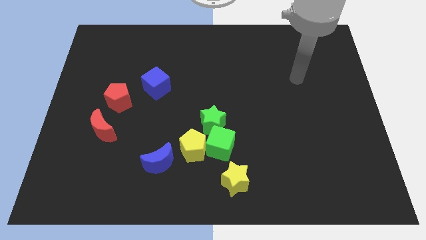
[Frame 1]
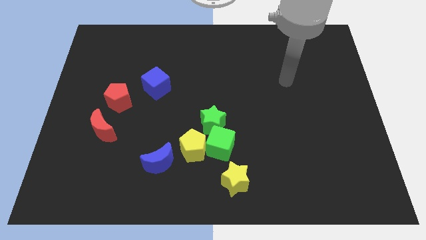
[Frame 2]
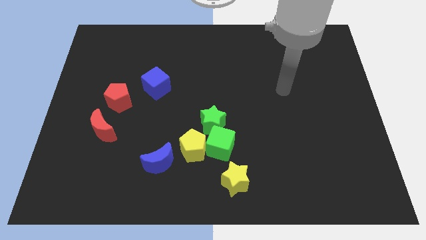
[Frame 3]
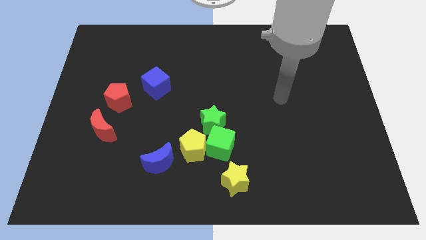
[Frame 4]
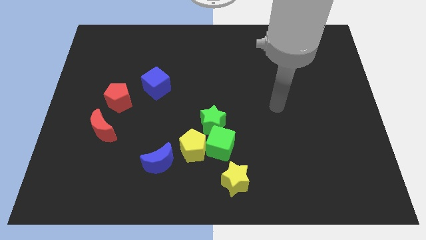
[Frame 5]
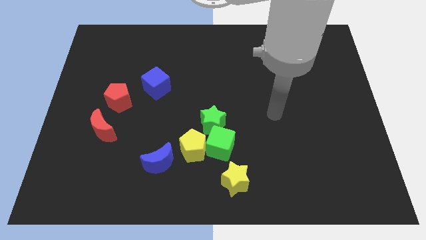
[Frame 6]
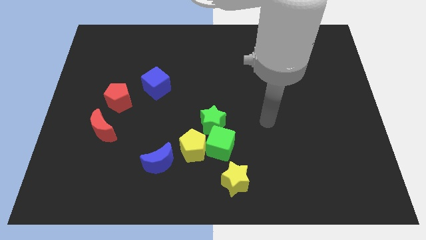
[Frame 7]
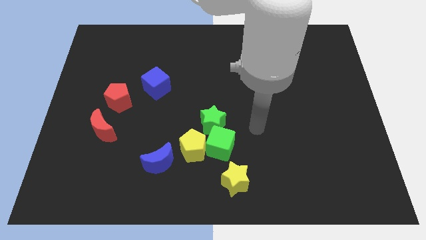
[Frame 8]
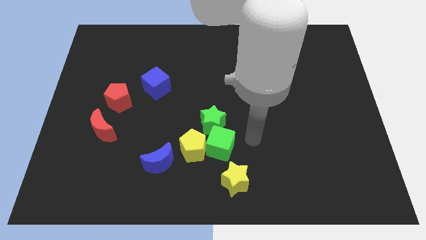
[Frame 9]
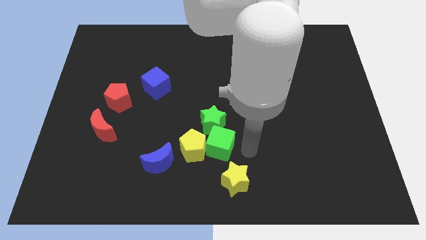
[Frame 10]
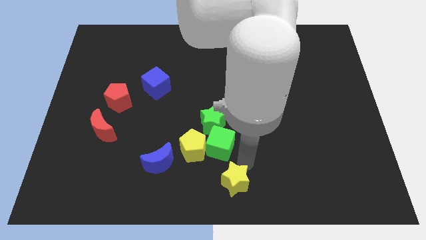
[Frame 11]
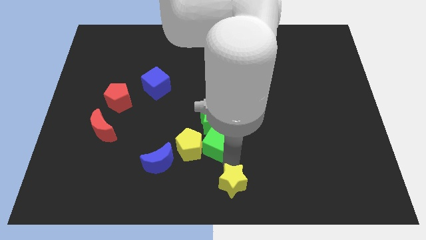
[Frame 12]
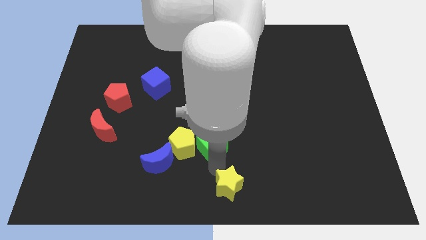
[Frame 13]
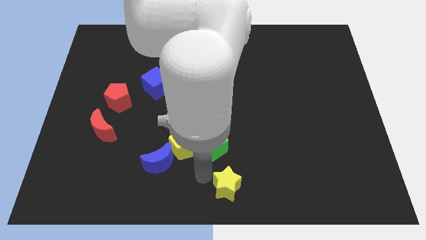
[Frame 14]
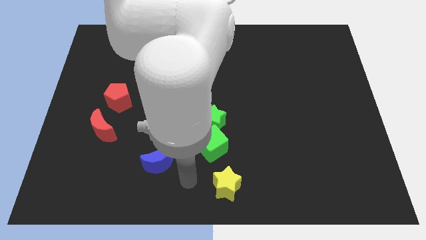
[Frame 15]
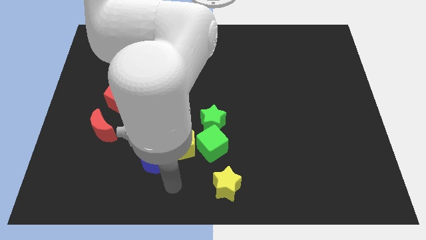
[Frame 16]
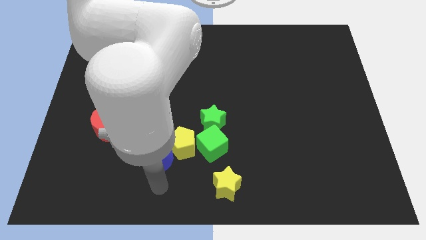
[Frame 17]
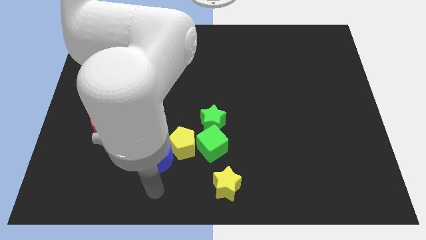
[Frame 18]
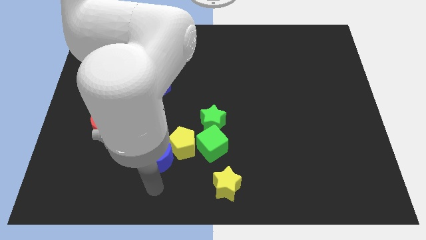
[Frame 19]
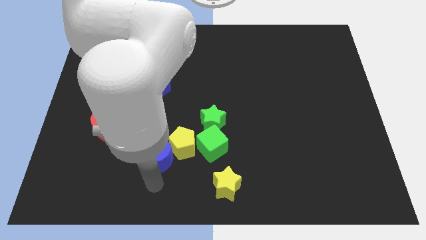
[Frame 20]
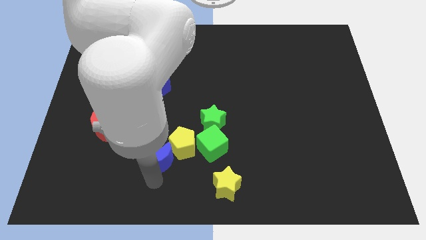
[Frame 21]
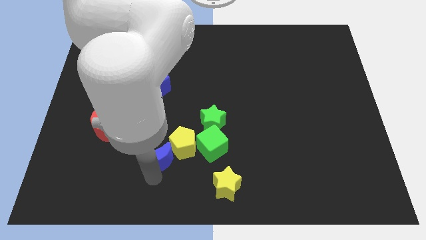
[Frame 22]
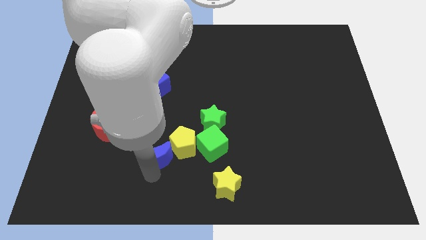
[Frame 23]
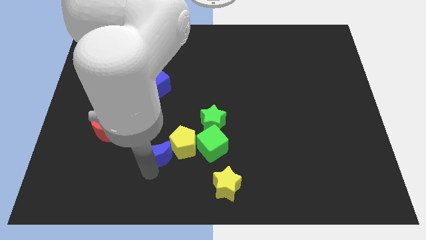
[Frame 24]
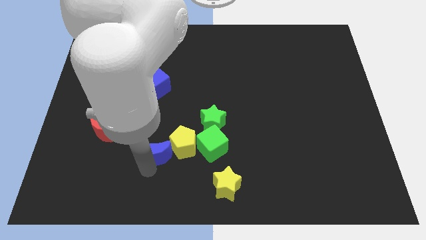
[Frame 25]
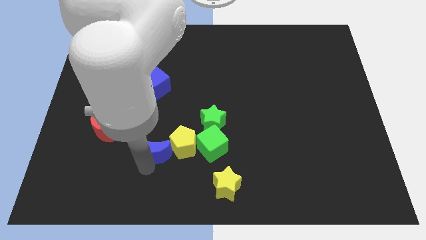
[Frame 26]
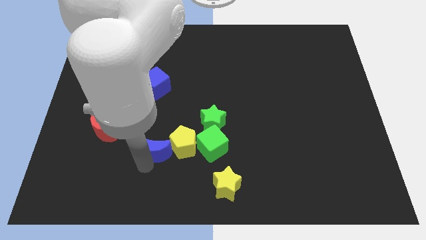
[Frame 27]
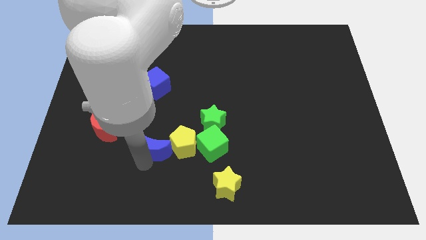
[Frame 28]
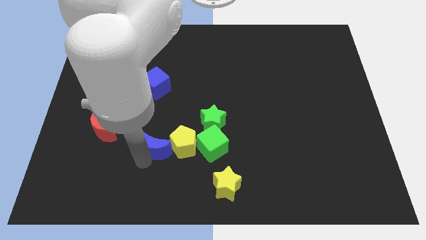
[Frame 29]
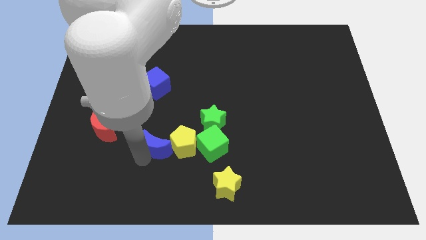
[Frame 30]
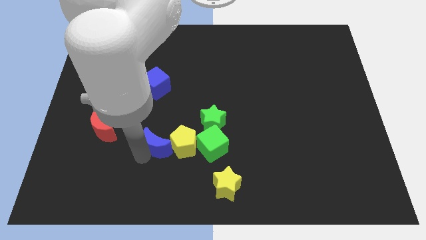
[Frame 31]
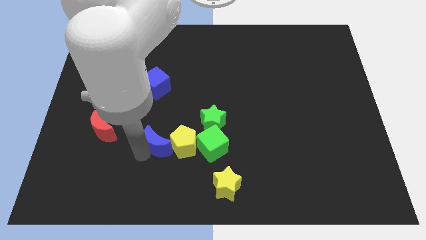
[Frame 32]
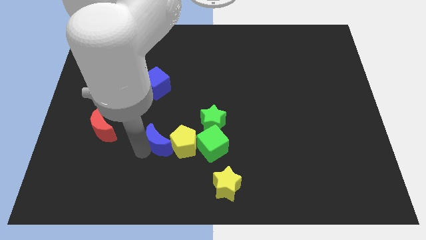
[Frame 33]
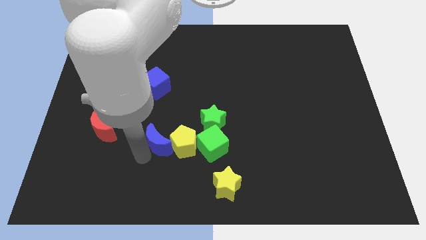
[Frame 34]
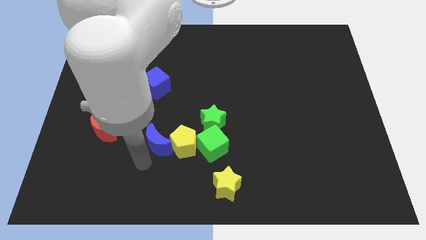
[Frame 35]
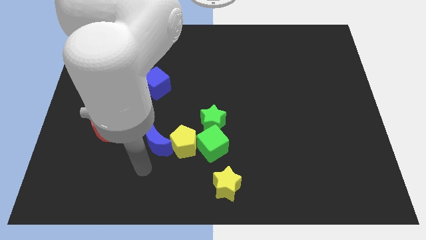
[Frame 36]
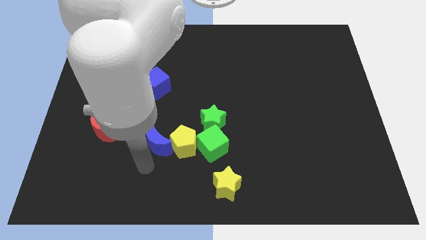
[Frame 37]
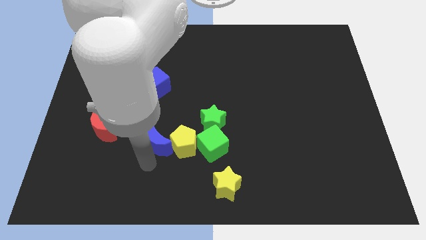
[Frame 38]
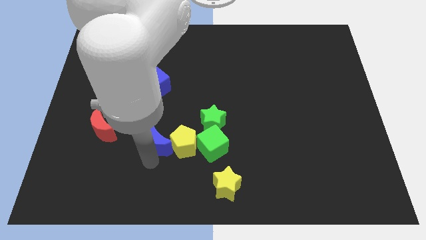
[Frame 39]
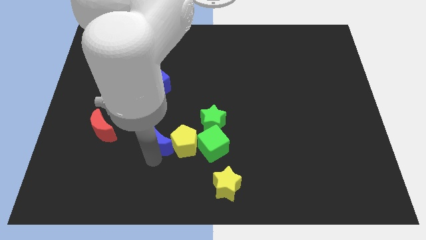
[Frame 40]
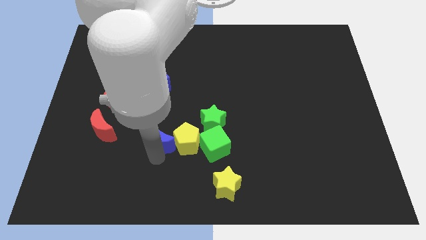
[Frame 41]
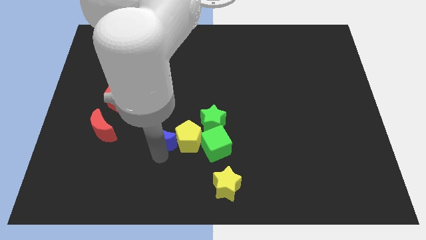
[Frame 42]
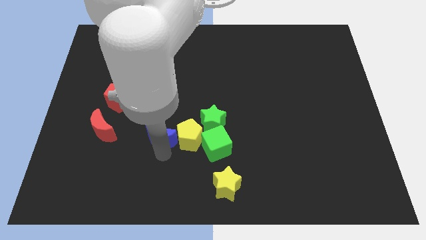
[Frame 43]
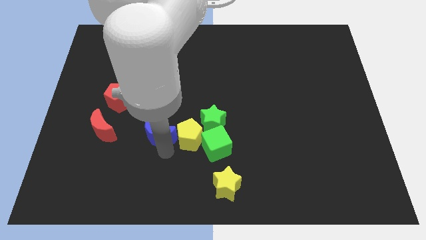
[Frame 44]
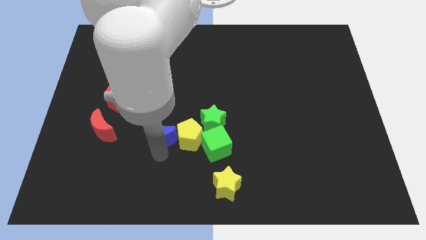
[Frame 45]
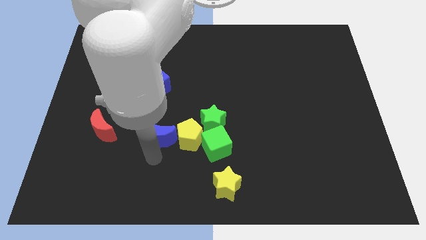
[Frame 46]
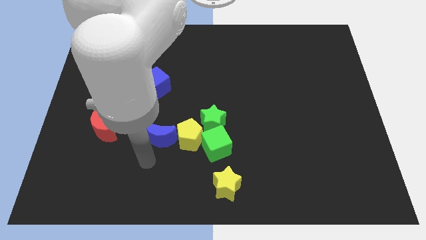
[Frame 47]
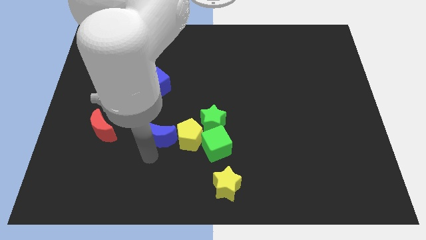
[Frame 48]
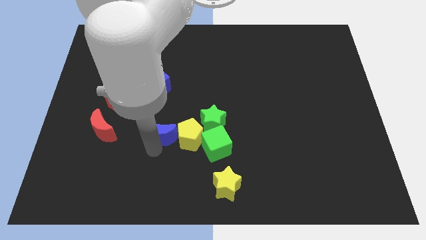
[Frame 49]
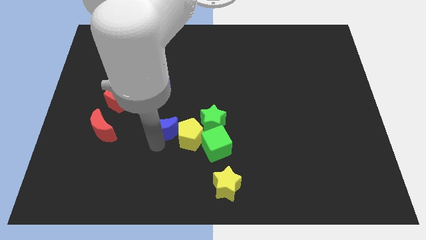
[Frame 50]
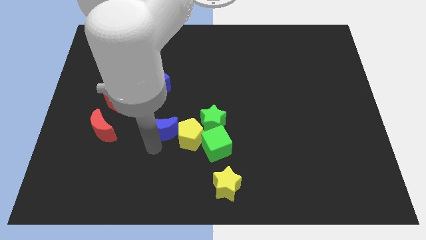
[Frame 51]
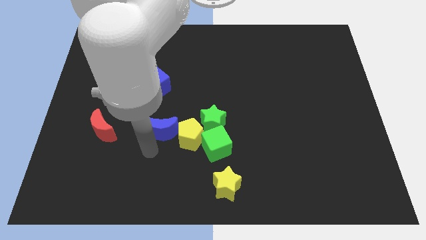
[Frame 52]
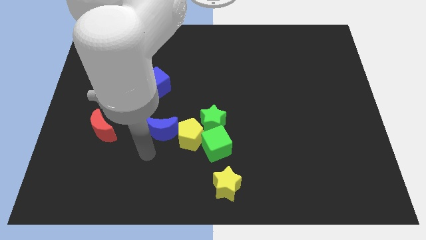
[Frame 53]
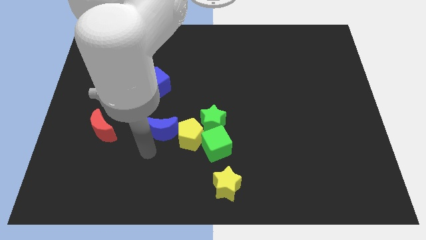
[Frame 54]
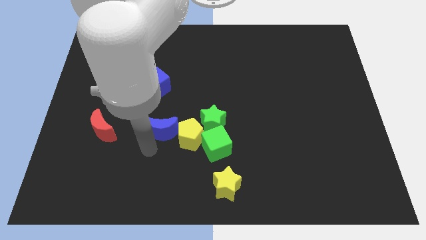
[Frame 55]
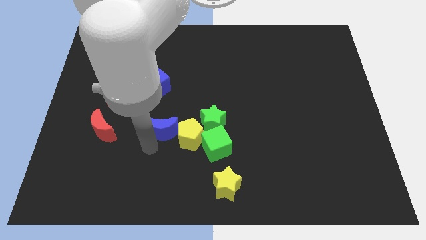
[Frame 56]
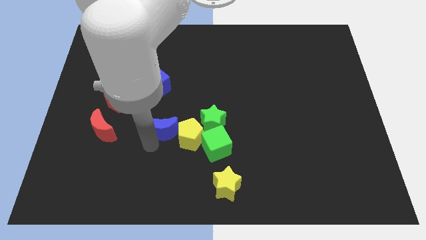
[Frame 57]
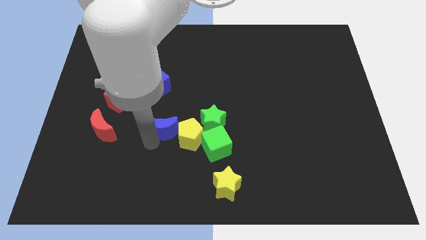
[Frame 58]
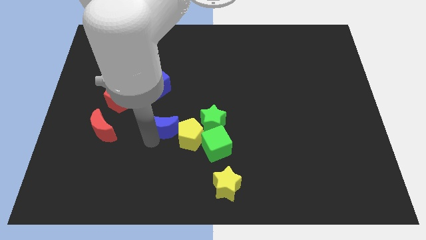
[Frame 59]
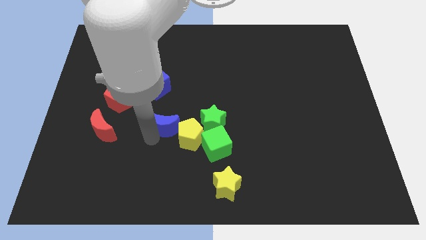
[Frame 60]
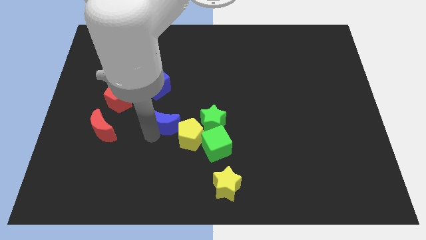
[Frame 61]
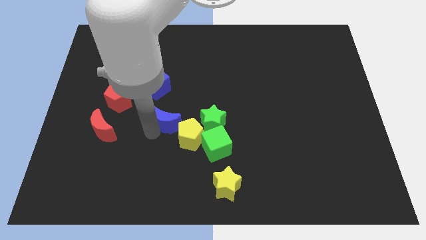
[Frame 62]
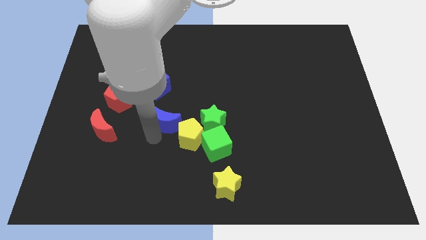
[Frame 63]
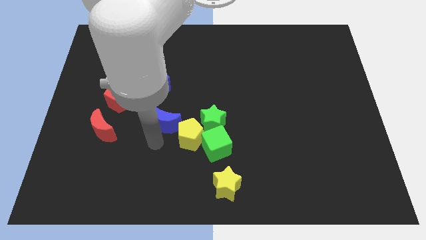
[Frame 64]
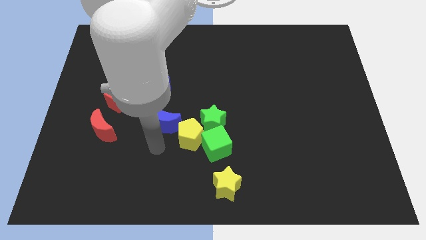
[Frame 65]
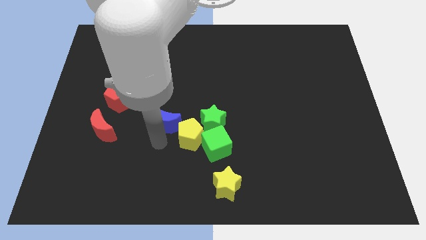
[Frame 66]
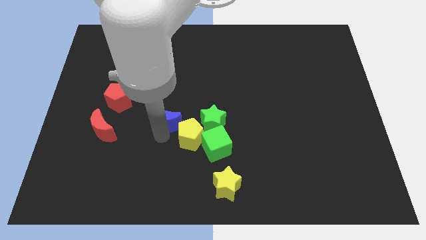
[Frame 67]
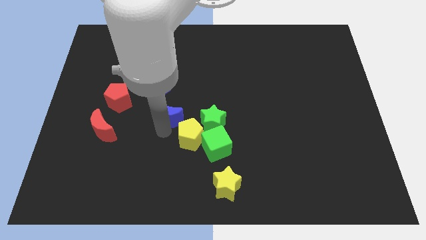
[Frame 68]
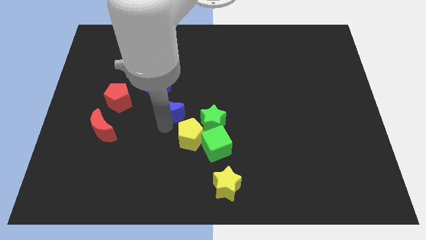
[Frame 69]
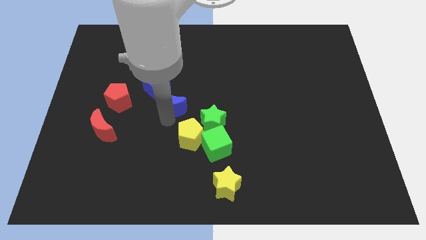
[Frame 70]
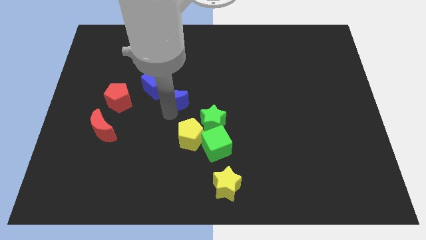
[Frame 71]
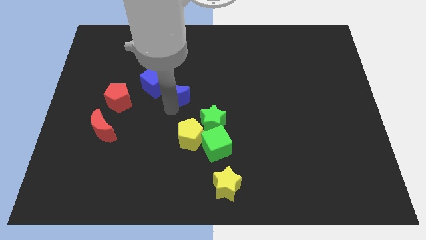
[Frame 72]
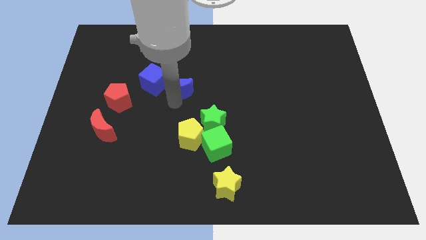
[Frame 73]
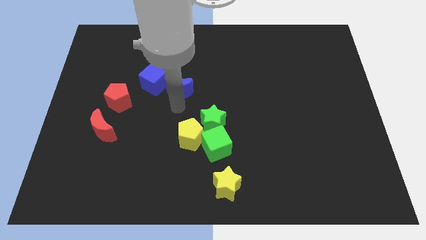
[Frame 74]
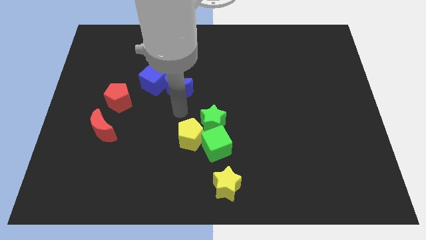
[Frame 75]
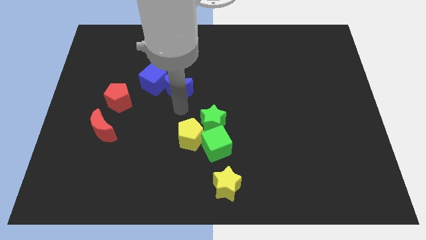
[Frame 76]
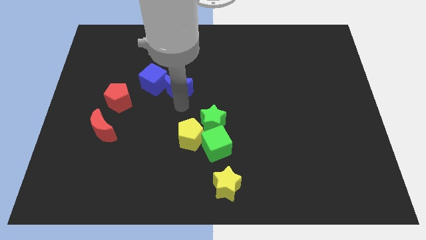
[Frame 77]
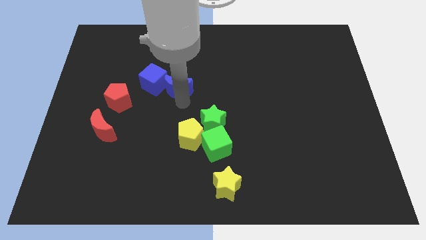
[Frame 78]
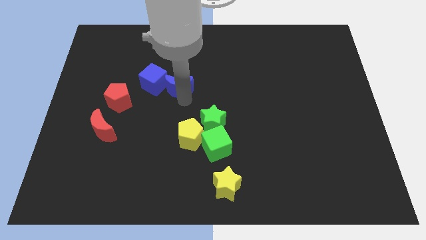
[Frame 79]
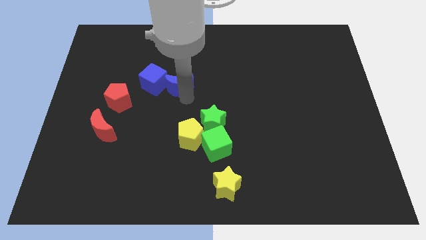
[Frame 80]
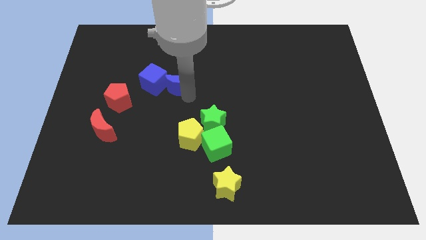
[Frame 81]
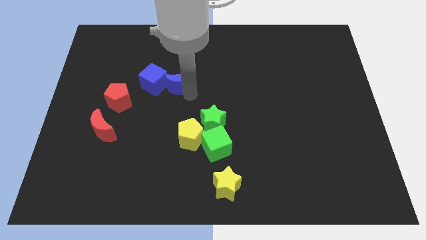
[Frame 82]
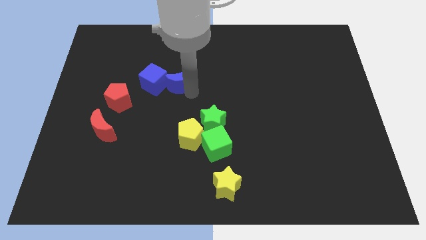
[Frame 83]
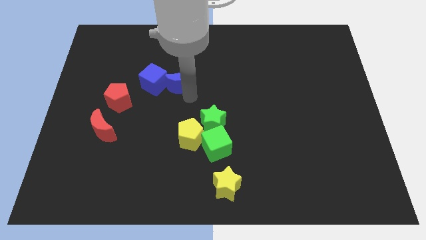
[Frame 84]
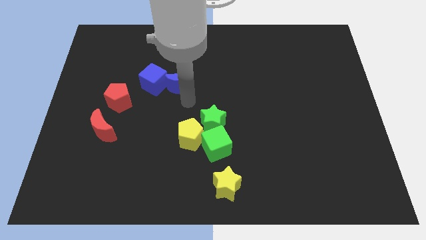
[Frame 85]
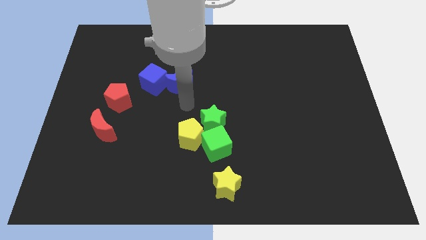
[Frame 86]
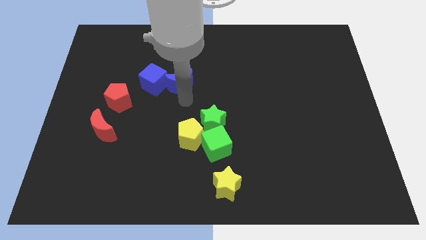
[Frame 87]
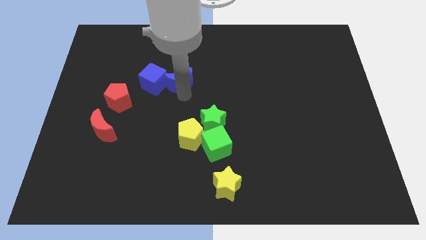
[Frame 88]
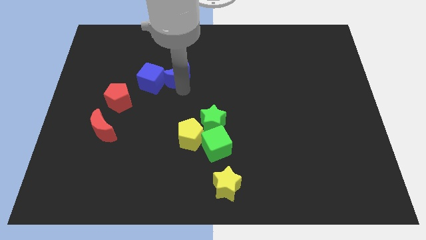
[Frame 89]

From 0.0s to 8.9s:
slide the blue moon to the top right of the blue cube
